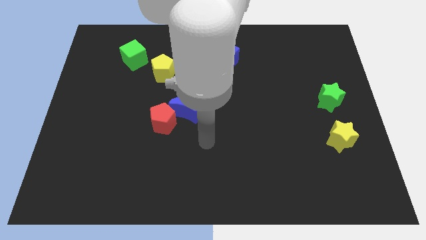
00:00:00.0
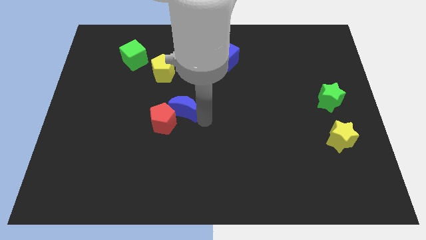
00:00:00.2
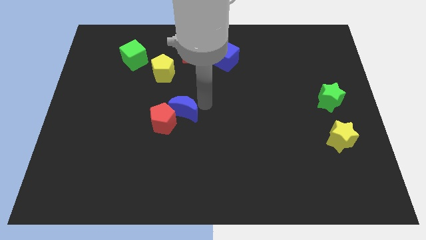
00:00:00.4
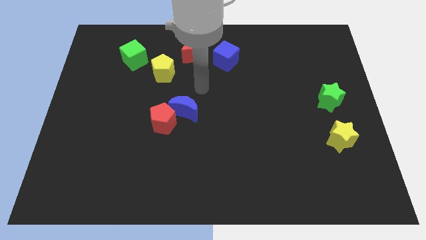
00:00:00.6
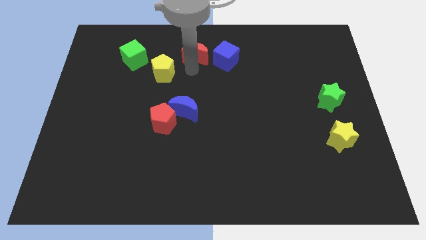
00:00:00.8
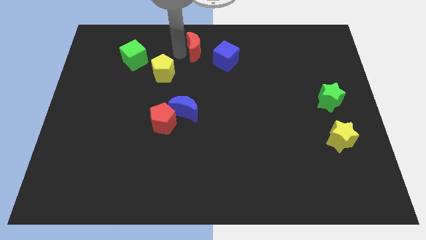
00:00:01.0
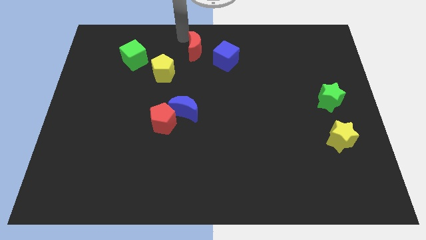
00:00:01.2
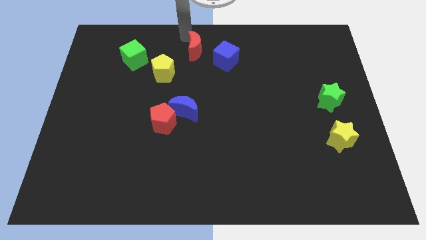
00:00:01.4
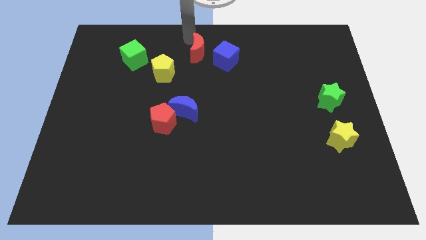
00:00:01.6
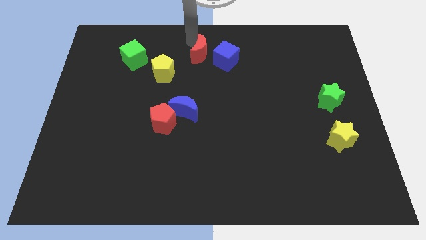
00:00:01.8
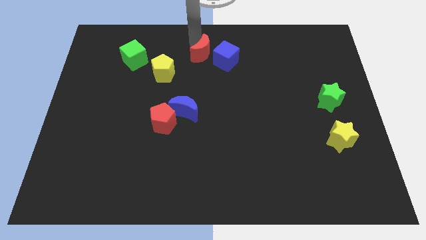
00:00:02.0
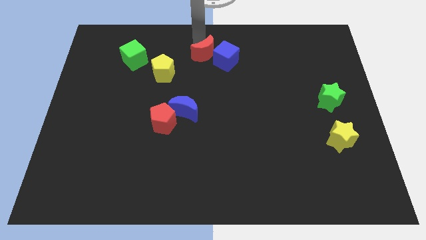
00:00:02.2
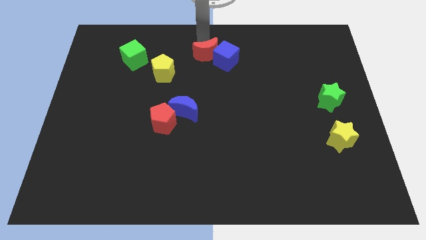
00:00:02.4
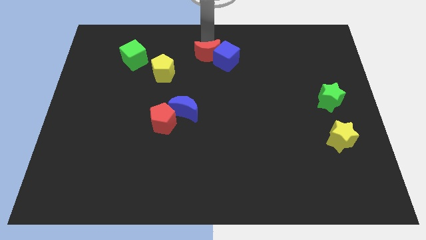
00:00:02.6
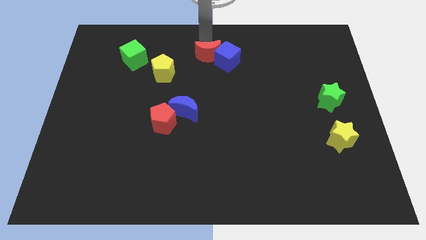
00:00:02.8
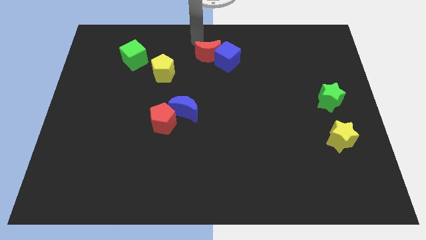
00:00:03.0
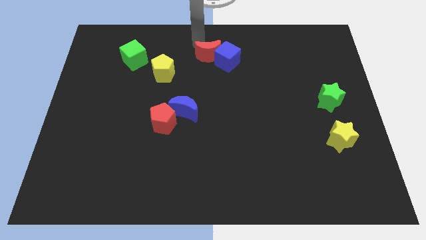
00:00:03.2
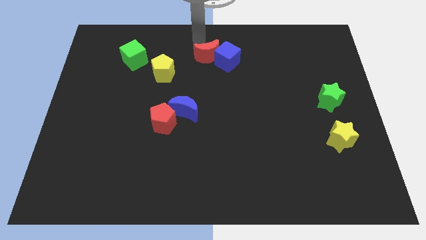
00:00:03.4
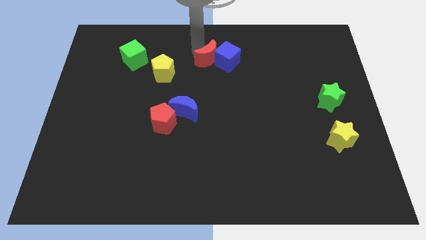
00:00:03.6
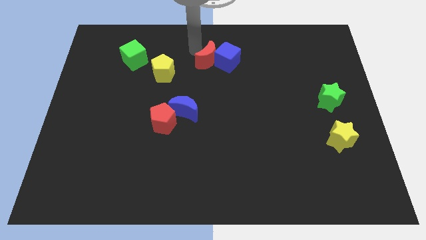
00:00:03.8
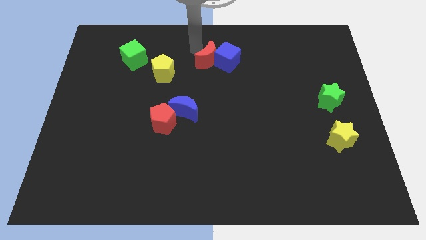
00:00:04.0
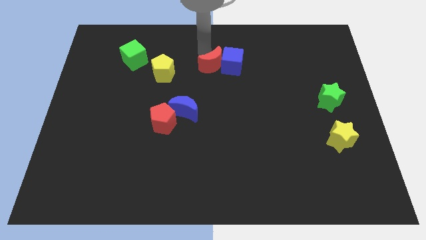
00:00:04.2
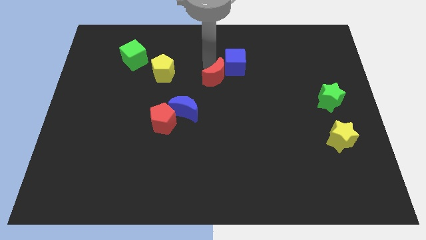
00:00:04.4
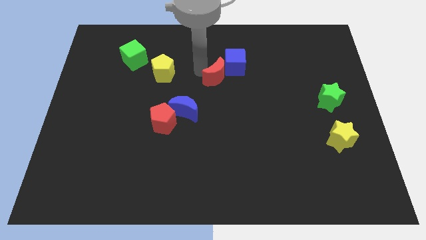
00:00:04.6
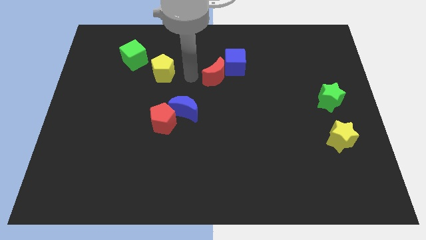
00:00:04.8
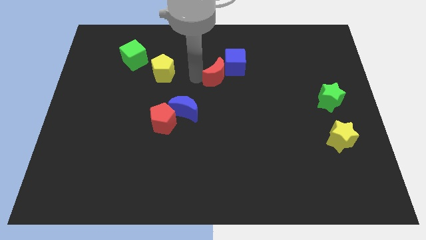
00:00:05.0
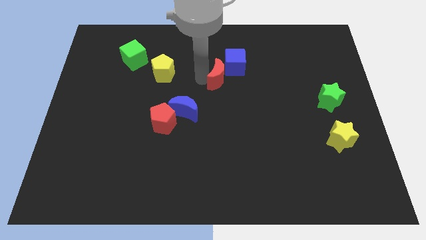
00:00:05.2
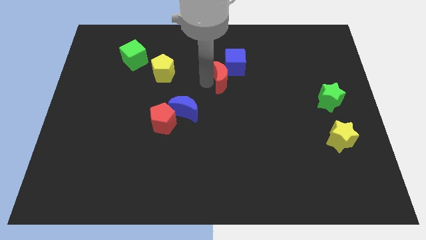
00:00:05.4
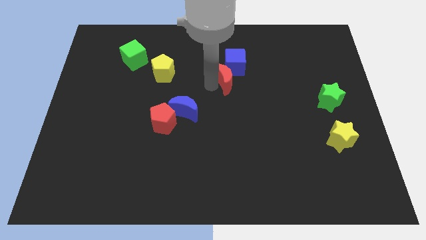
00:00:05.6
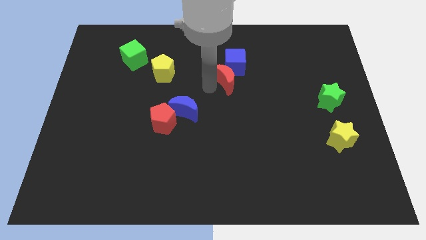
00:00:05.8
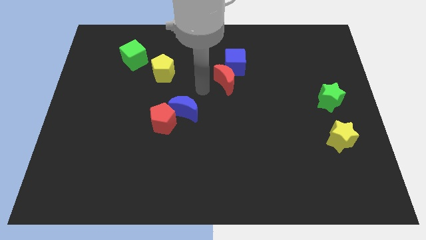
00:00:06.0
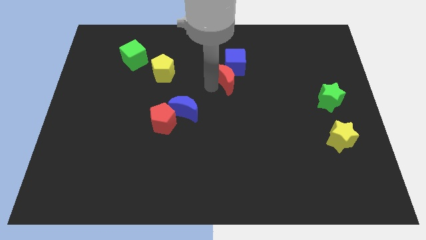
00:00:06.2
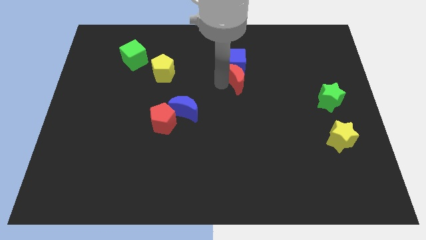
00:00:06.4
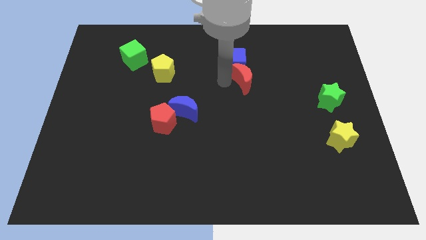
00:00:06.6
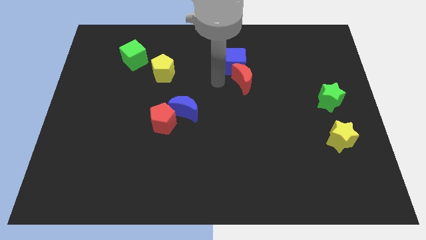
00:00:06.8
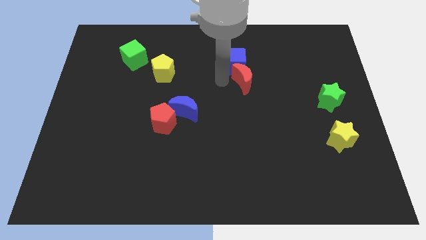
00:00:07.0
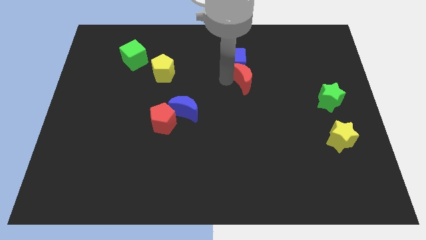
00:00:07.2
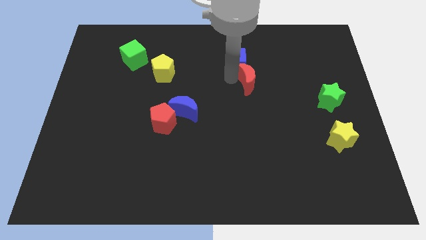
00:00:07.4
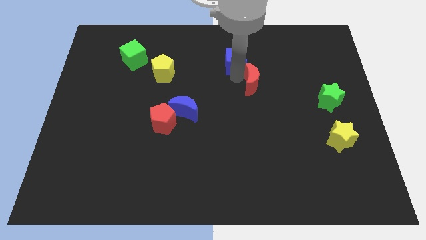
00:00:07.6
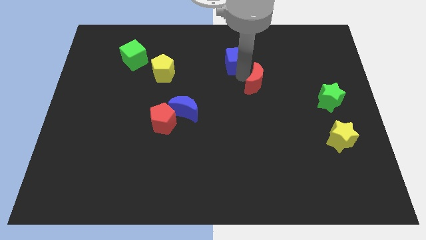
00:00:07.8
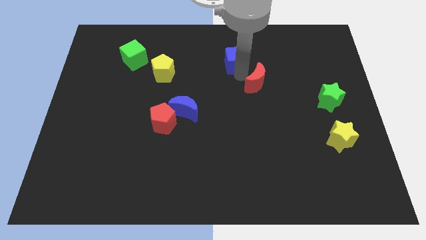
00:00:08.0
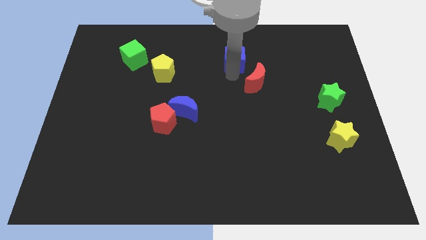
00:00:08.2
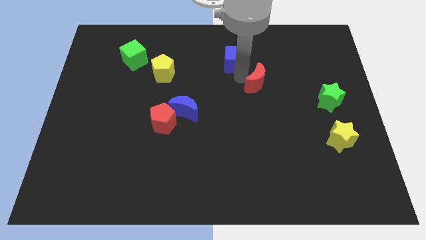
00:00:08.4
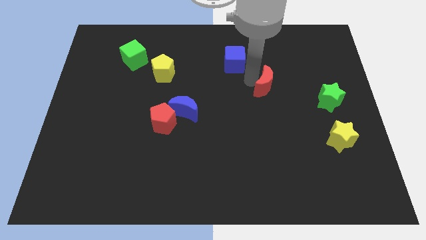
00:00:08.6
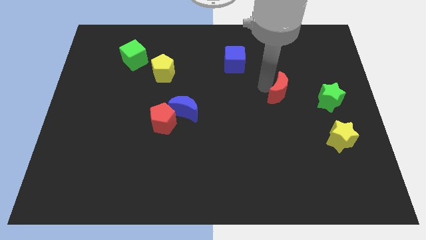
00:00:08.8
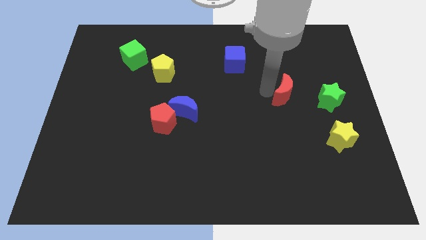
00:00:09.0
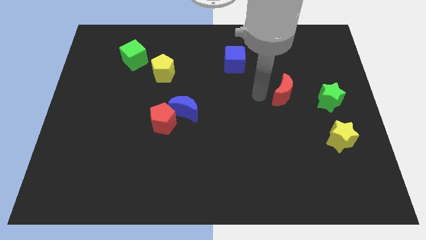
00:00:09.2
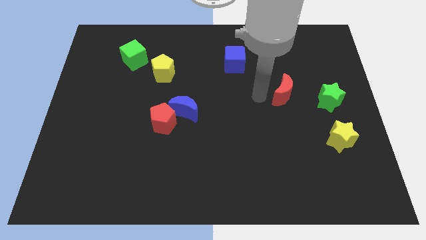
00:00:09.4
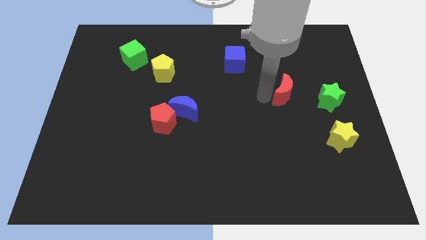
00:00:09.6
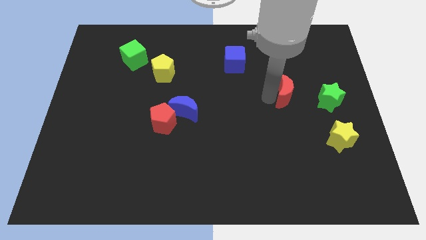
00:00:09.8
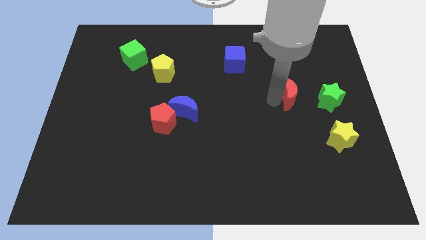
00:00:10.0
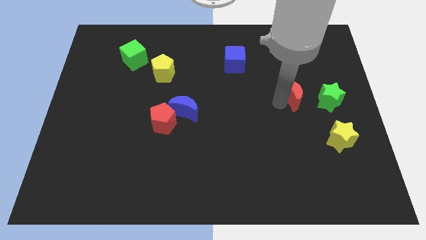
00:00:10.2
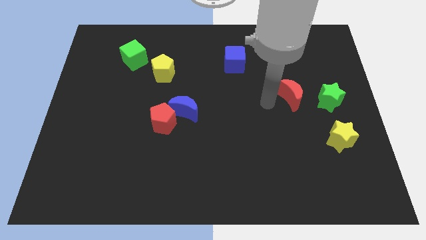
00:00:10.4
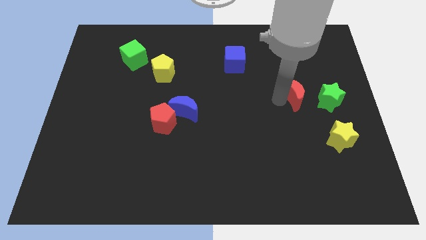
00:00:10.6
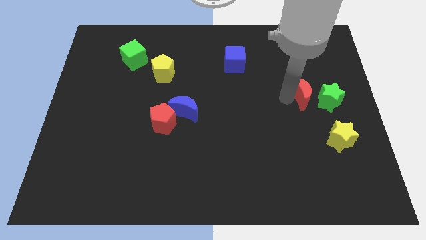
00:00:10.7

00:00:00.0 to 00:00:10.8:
slide the red moon next to the green star

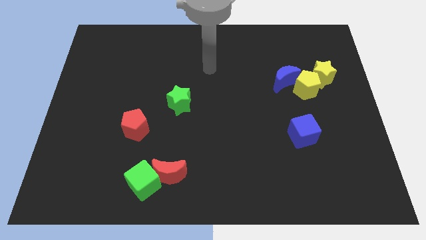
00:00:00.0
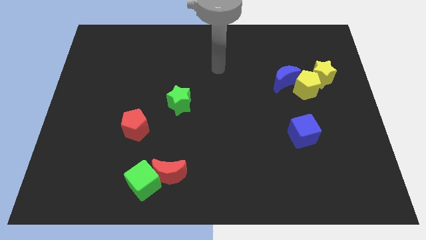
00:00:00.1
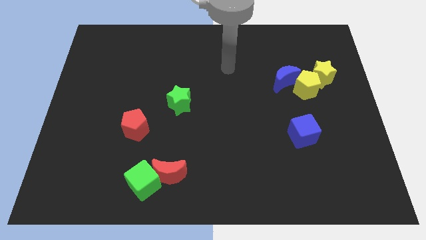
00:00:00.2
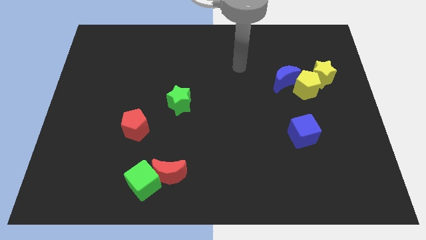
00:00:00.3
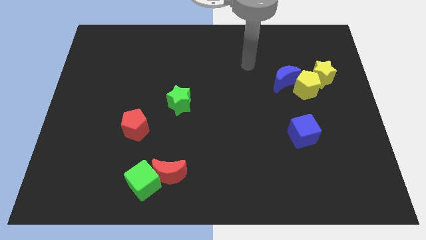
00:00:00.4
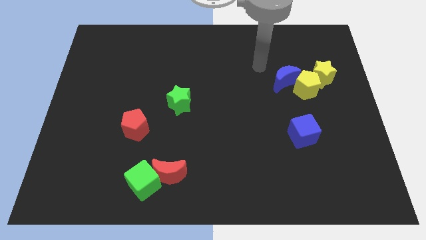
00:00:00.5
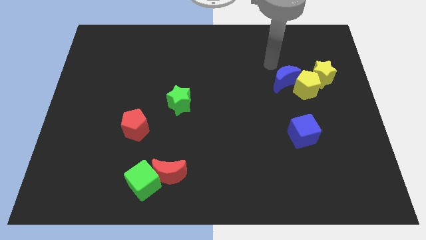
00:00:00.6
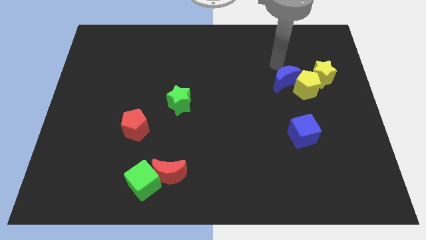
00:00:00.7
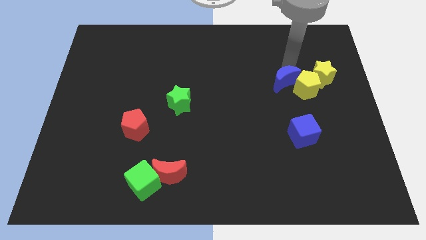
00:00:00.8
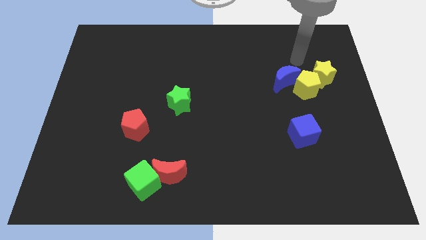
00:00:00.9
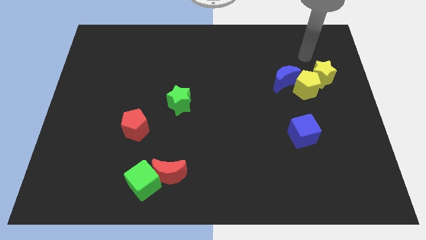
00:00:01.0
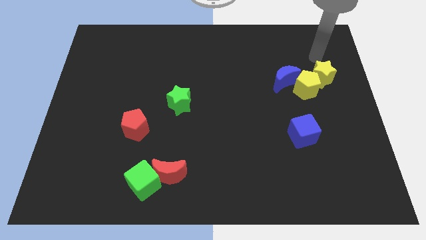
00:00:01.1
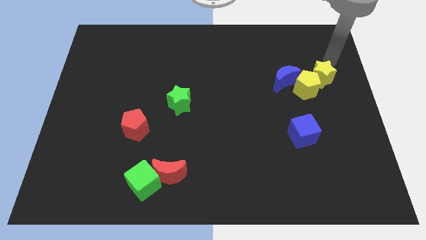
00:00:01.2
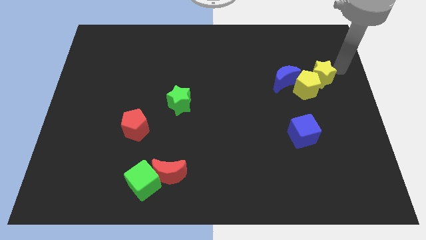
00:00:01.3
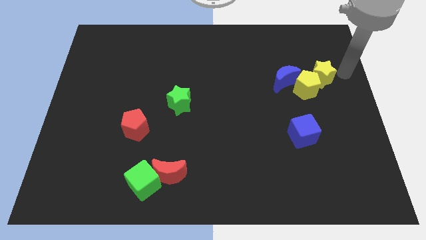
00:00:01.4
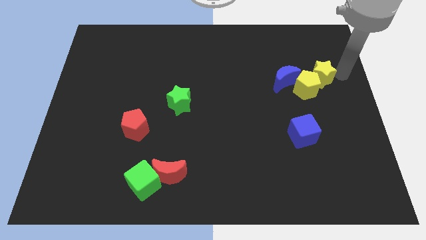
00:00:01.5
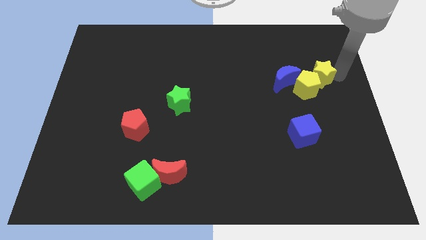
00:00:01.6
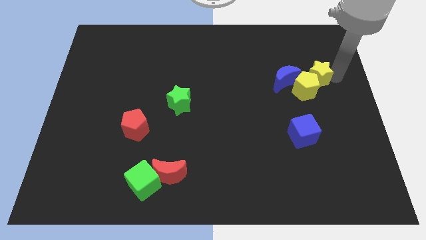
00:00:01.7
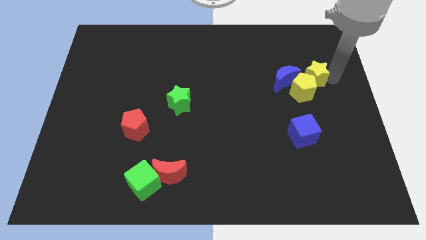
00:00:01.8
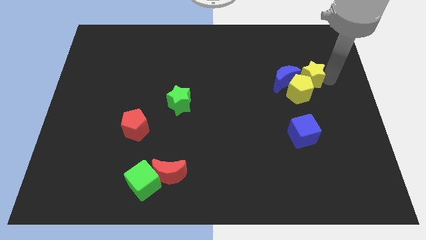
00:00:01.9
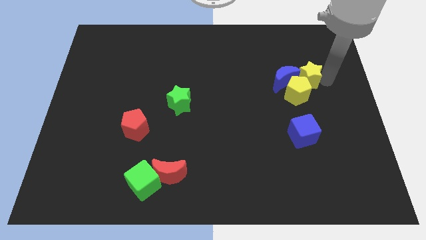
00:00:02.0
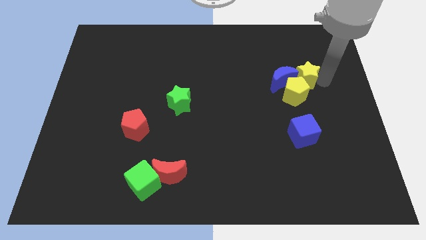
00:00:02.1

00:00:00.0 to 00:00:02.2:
move the yellow star next to the blue moon
